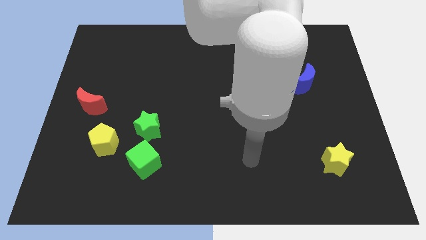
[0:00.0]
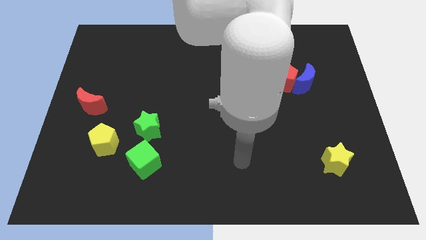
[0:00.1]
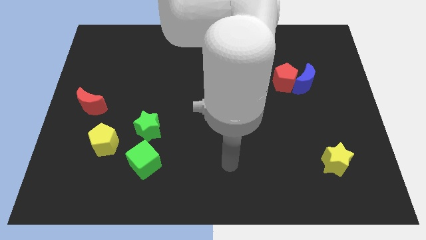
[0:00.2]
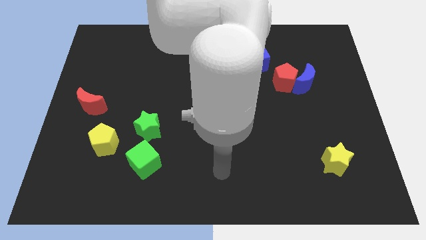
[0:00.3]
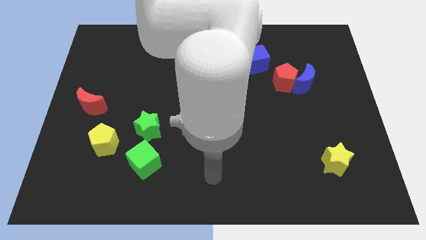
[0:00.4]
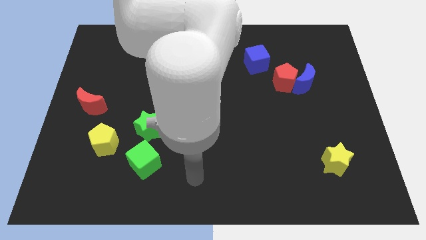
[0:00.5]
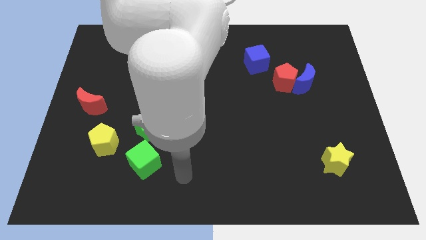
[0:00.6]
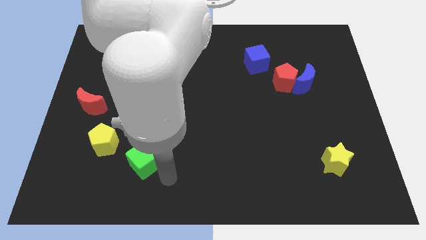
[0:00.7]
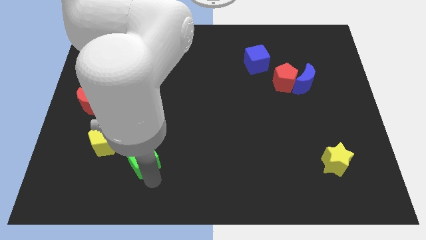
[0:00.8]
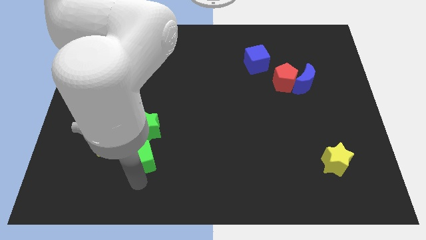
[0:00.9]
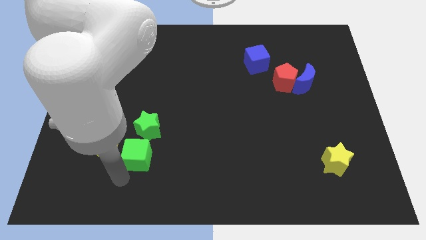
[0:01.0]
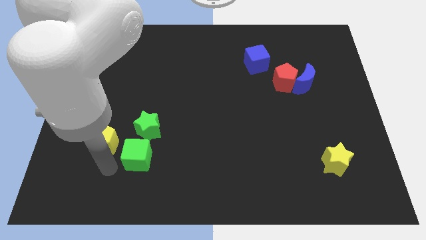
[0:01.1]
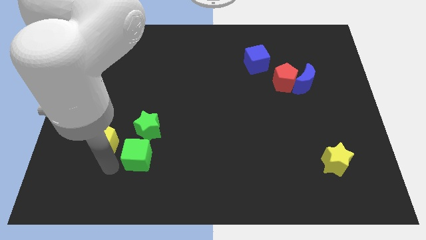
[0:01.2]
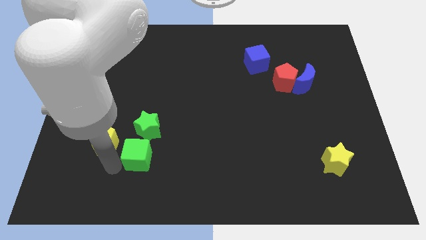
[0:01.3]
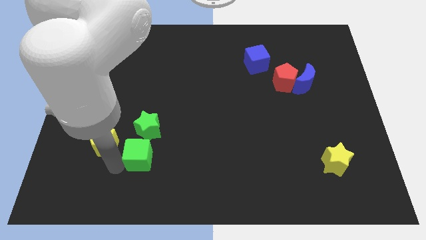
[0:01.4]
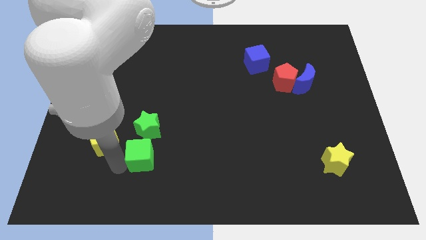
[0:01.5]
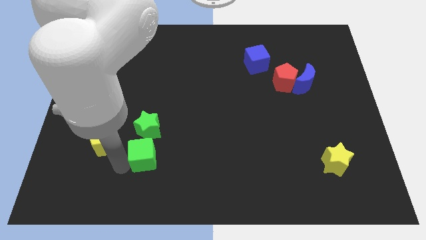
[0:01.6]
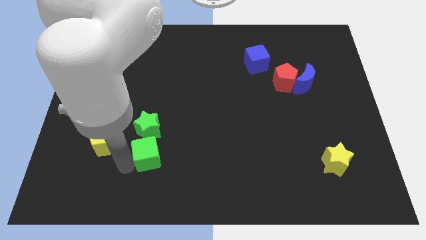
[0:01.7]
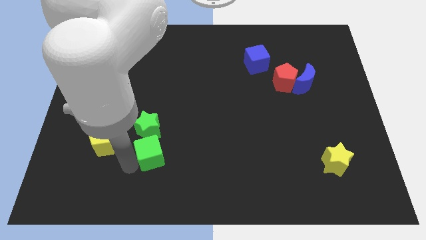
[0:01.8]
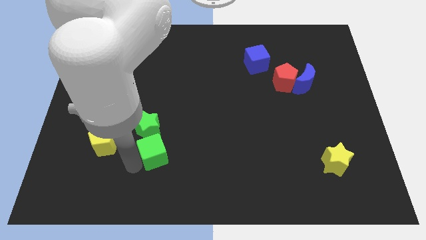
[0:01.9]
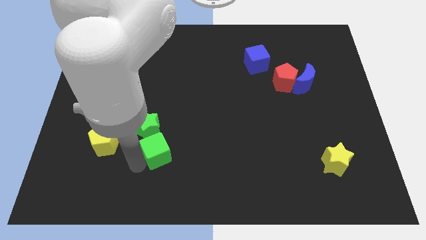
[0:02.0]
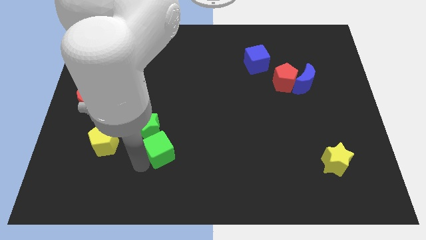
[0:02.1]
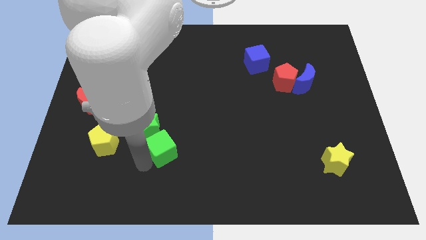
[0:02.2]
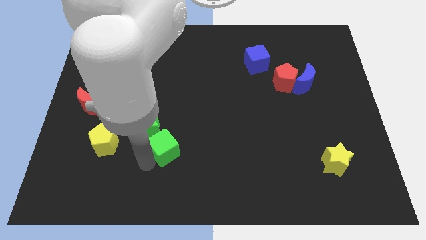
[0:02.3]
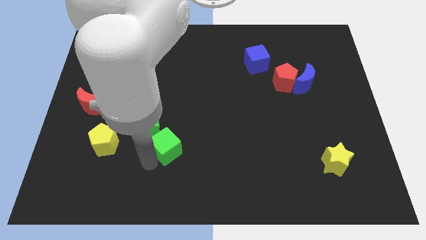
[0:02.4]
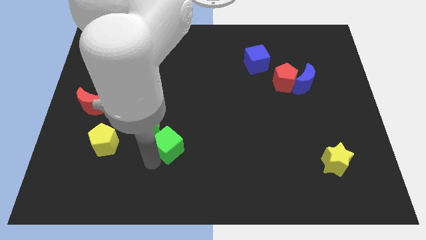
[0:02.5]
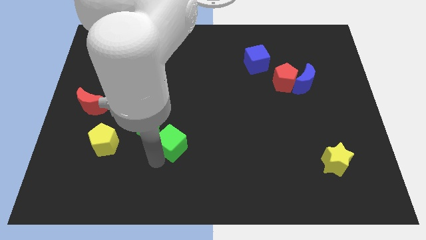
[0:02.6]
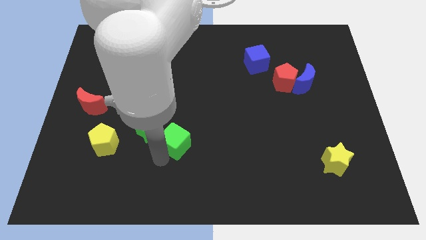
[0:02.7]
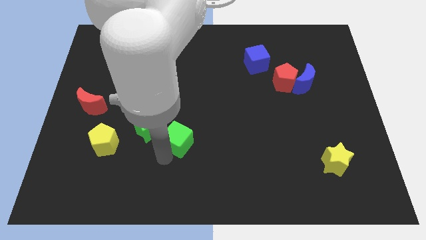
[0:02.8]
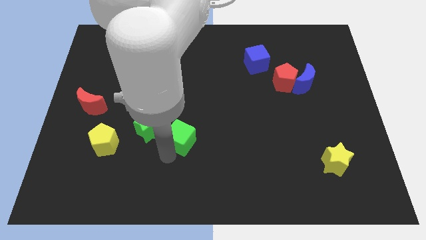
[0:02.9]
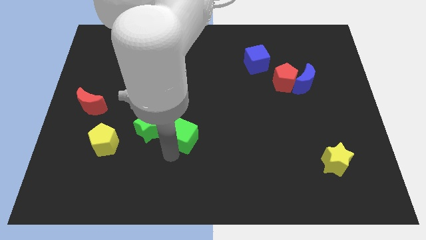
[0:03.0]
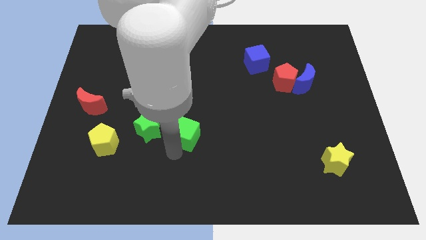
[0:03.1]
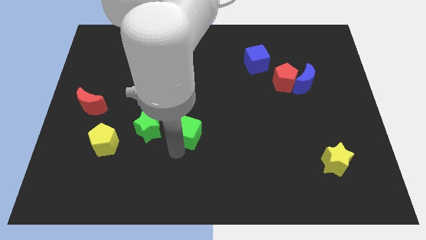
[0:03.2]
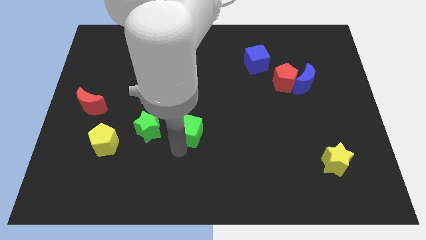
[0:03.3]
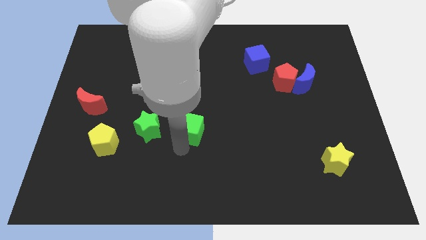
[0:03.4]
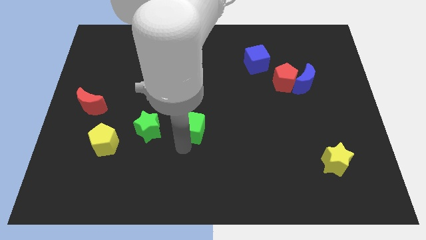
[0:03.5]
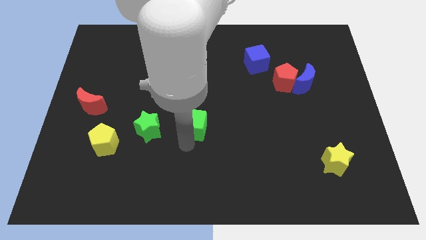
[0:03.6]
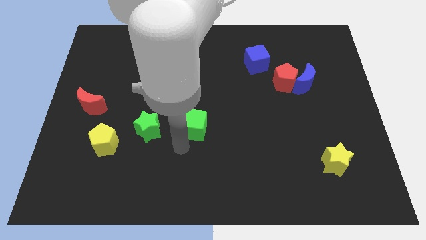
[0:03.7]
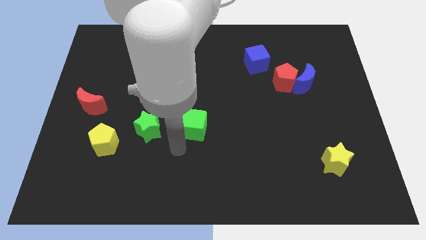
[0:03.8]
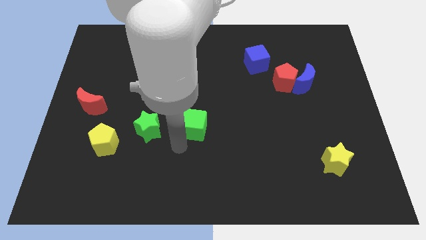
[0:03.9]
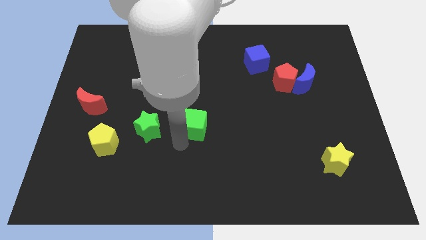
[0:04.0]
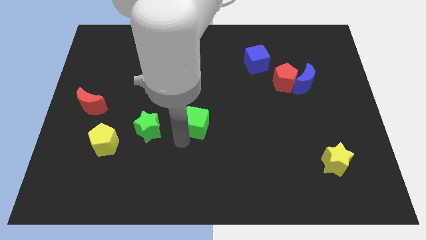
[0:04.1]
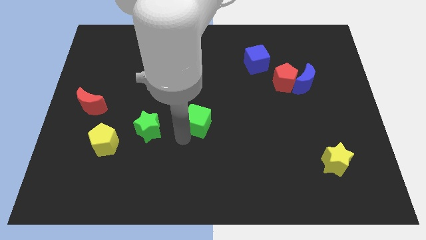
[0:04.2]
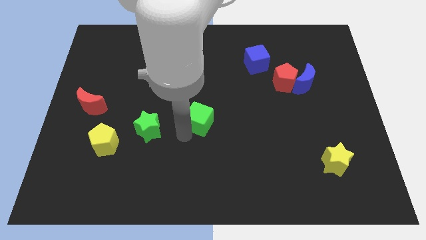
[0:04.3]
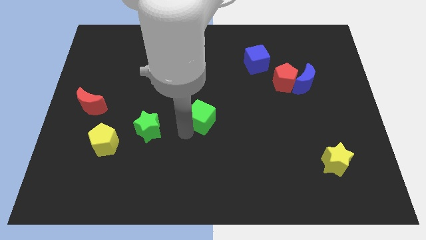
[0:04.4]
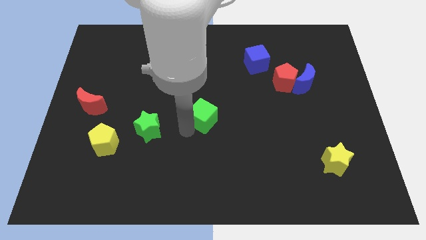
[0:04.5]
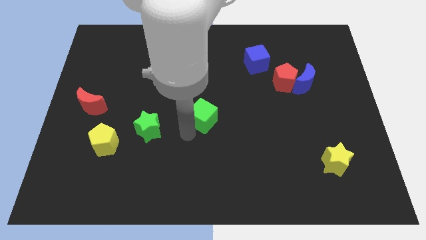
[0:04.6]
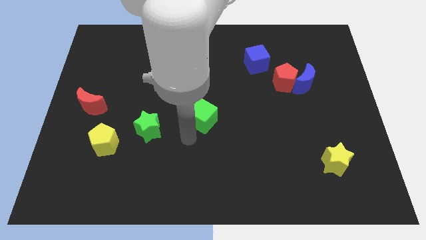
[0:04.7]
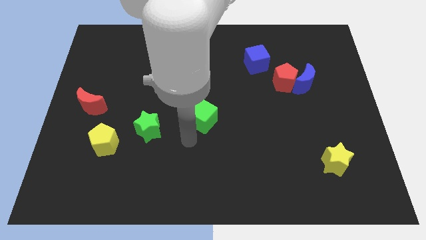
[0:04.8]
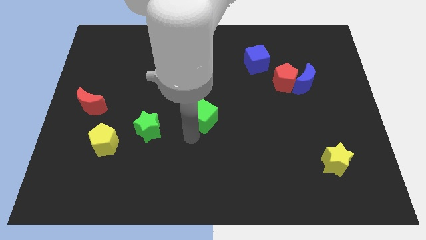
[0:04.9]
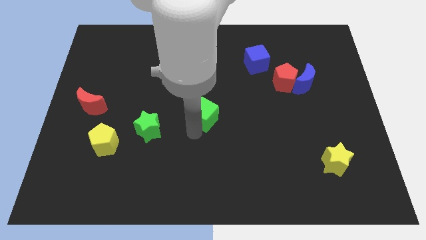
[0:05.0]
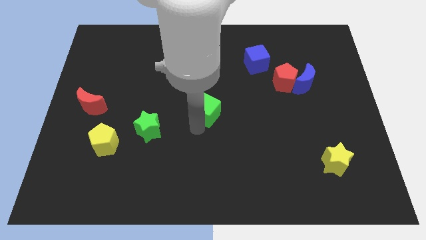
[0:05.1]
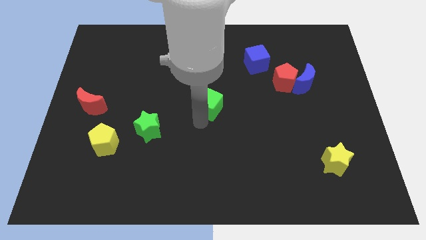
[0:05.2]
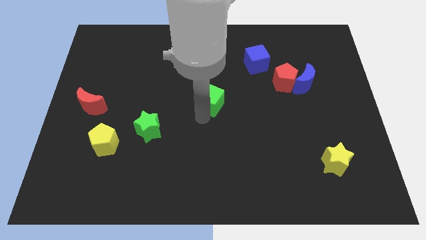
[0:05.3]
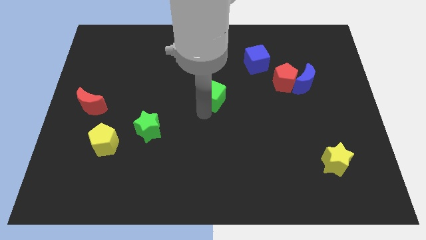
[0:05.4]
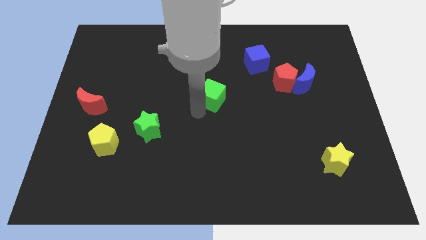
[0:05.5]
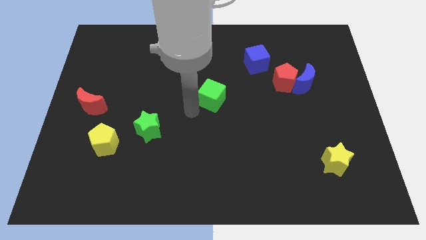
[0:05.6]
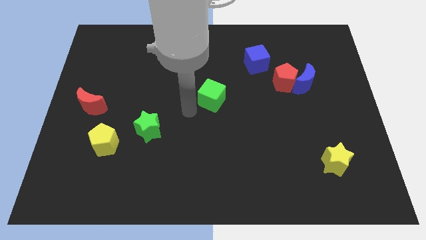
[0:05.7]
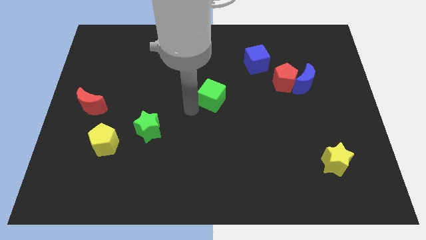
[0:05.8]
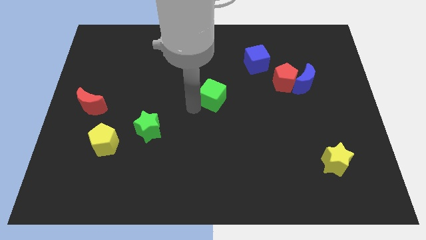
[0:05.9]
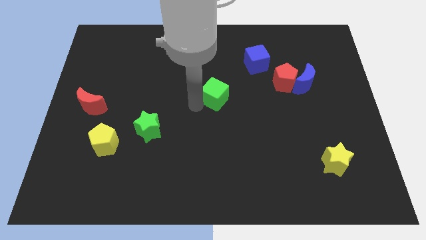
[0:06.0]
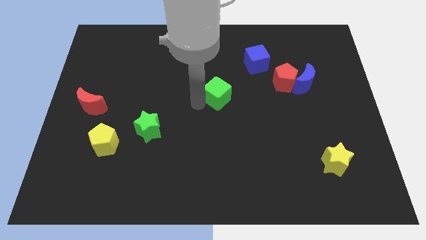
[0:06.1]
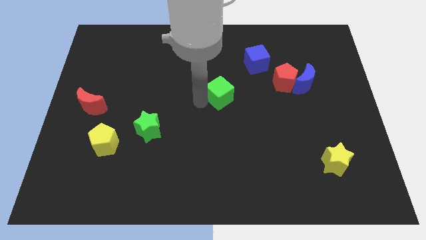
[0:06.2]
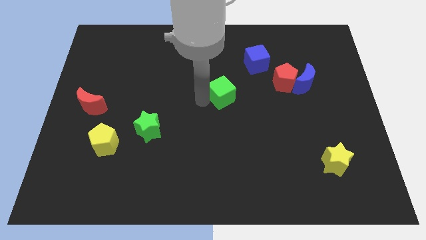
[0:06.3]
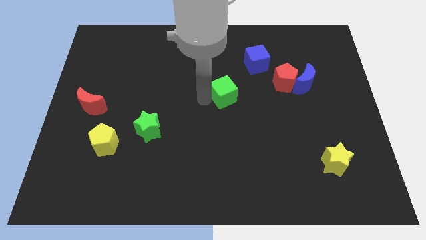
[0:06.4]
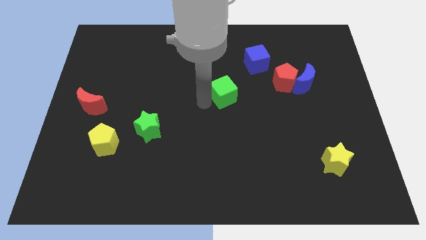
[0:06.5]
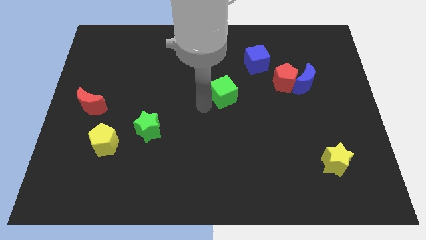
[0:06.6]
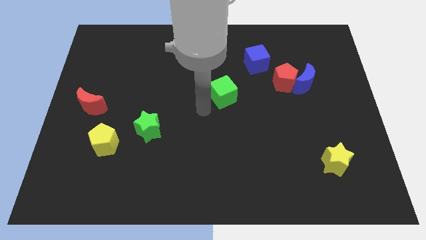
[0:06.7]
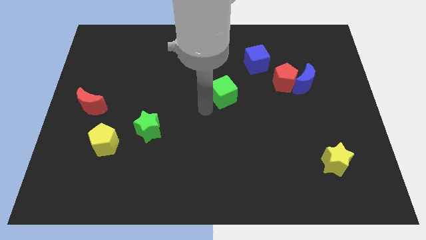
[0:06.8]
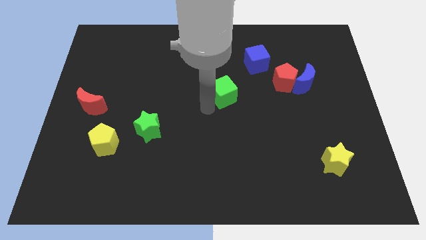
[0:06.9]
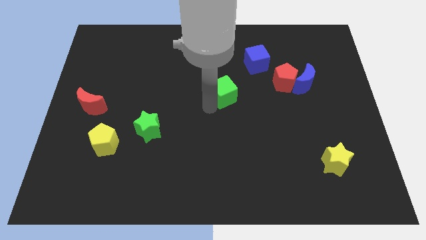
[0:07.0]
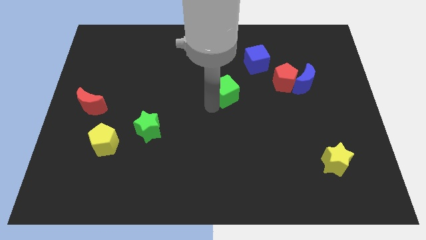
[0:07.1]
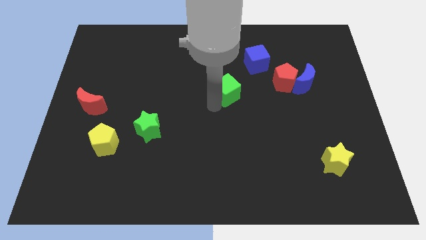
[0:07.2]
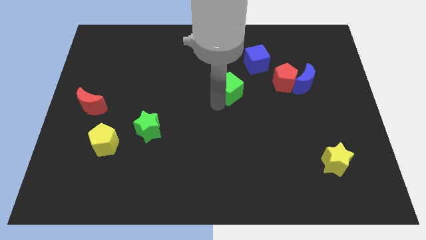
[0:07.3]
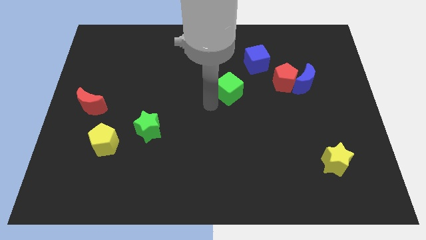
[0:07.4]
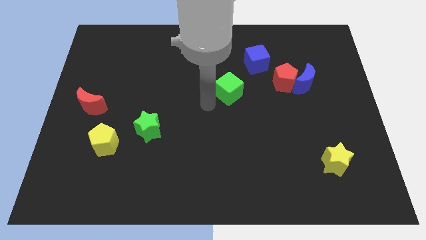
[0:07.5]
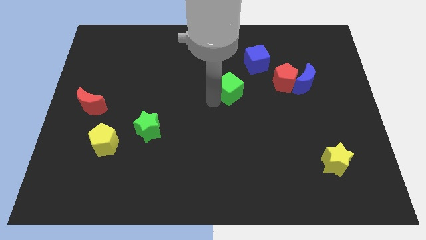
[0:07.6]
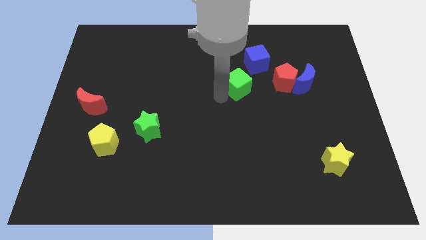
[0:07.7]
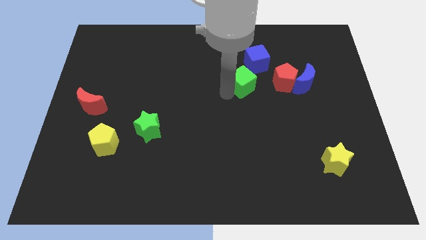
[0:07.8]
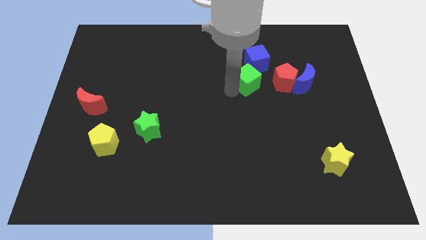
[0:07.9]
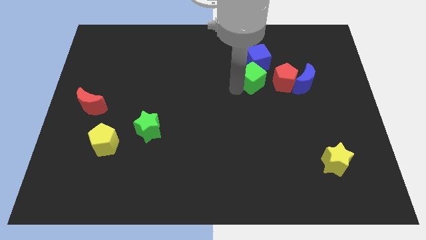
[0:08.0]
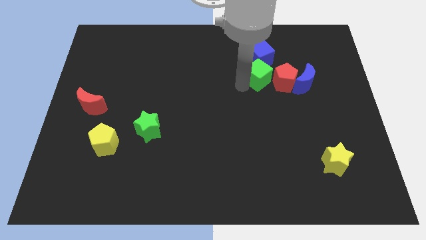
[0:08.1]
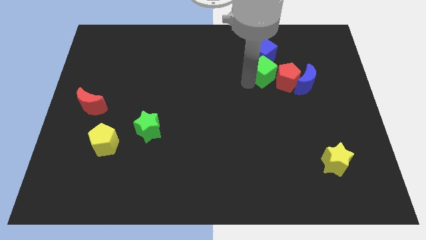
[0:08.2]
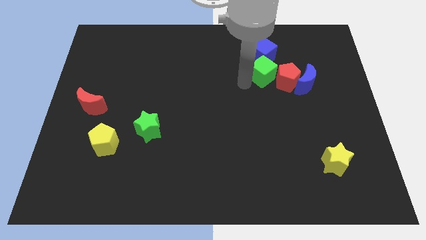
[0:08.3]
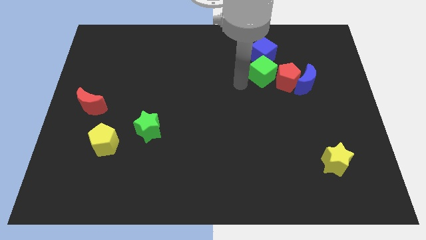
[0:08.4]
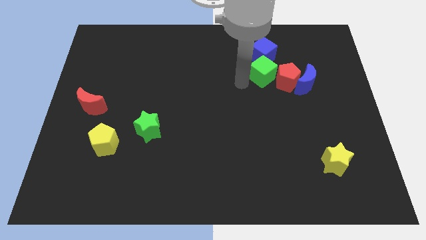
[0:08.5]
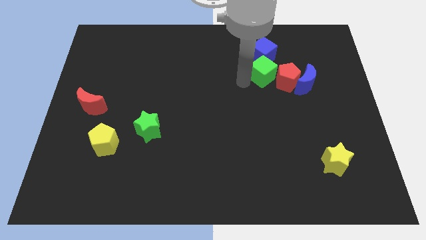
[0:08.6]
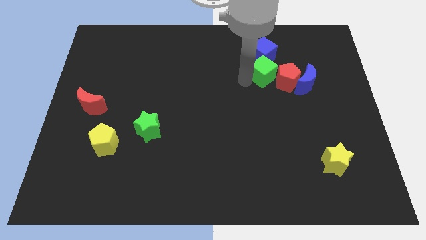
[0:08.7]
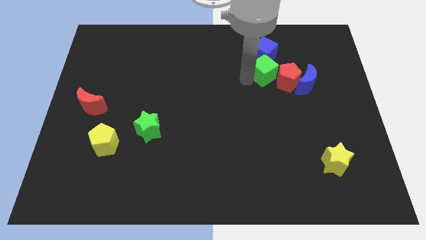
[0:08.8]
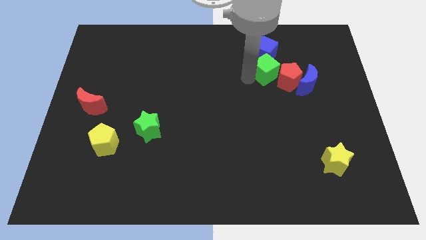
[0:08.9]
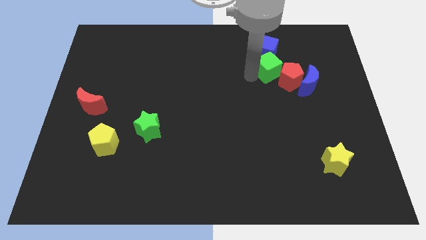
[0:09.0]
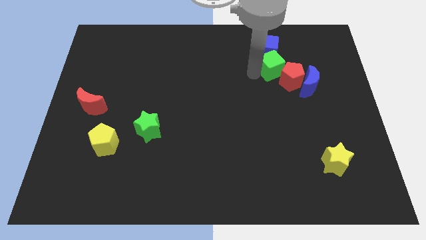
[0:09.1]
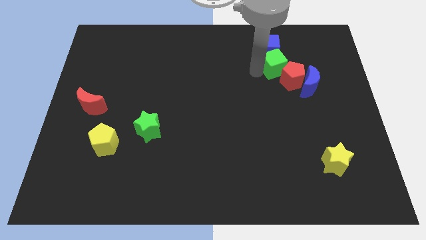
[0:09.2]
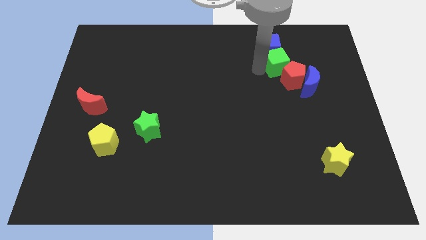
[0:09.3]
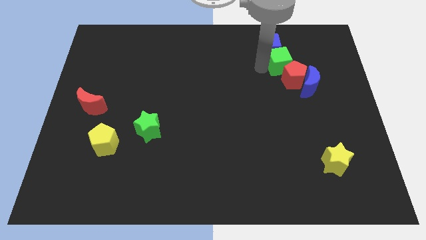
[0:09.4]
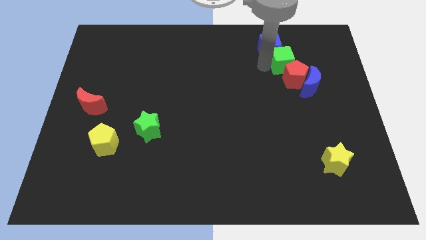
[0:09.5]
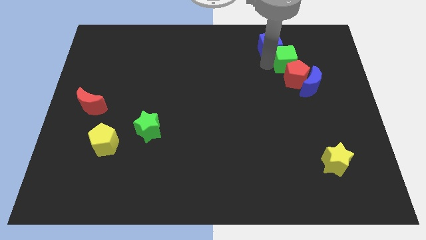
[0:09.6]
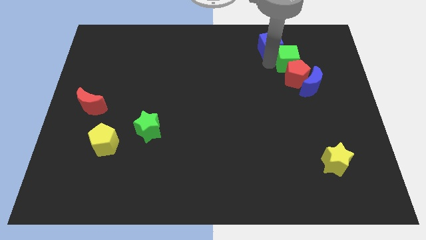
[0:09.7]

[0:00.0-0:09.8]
put the green cube to the top right side of the red pentagon
